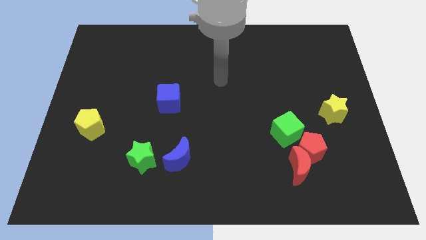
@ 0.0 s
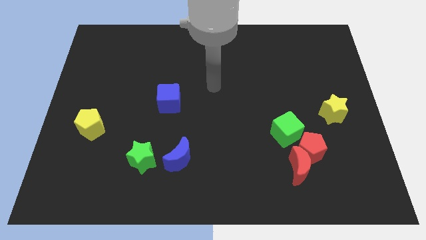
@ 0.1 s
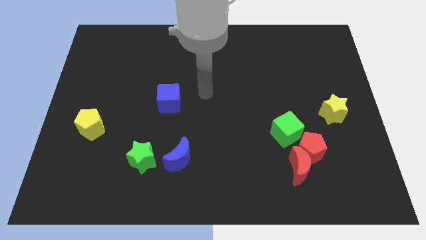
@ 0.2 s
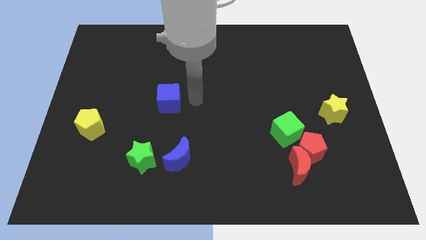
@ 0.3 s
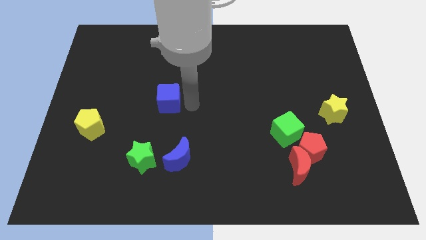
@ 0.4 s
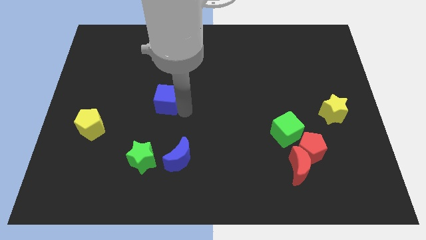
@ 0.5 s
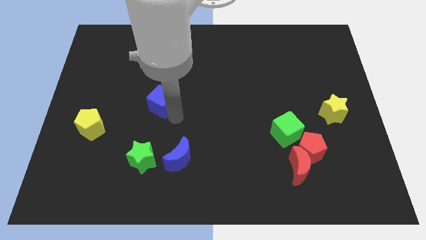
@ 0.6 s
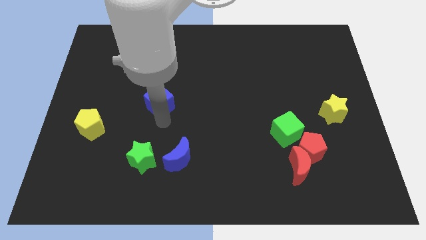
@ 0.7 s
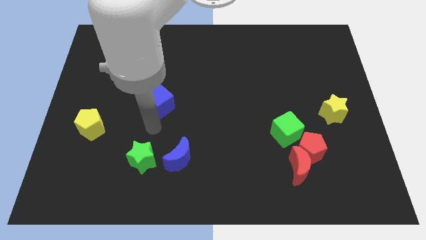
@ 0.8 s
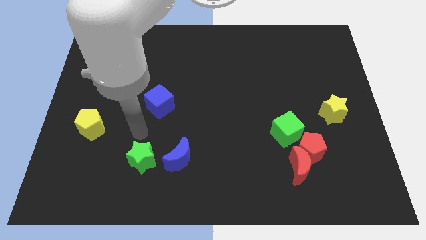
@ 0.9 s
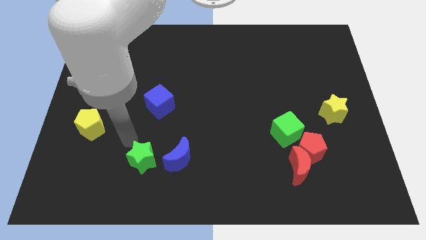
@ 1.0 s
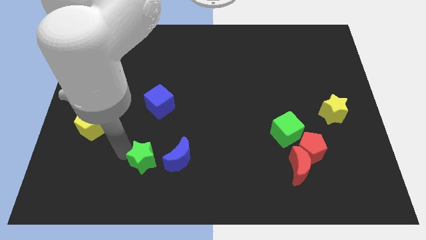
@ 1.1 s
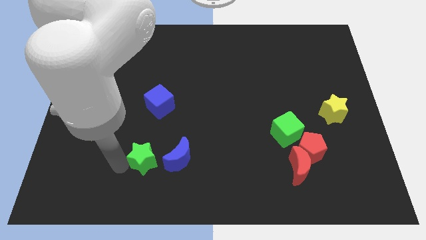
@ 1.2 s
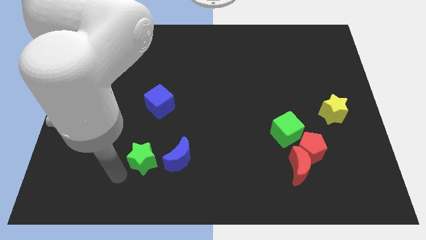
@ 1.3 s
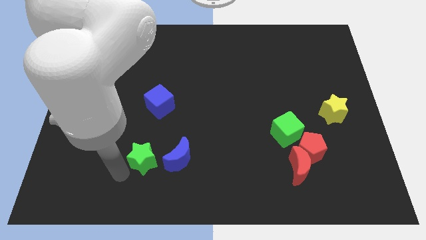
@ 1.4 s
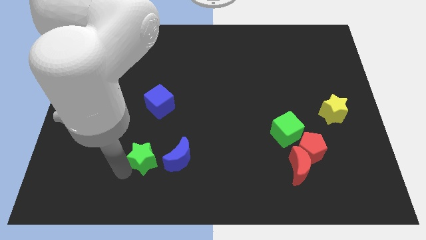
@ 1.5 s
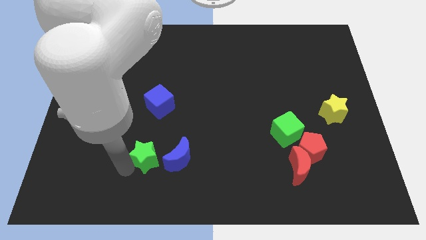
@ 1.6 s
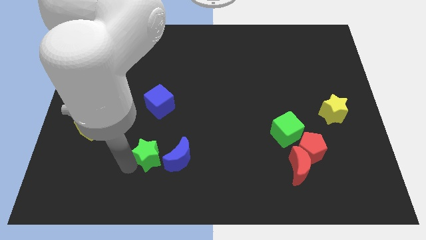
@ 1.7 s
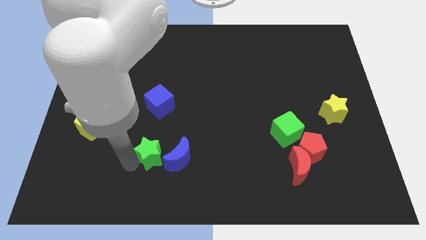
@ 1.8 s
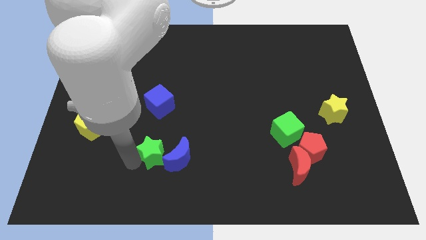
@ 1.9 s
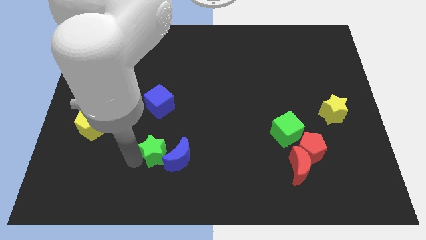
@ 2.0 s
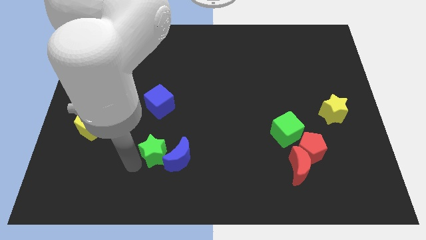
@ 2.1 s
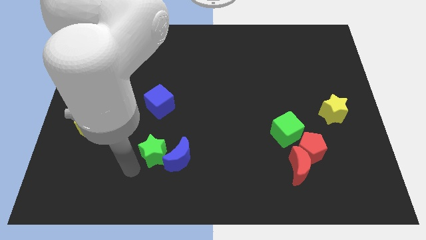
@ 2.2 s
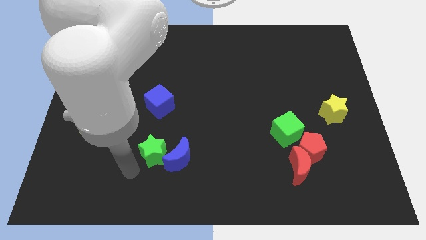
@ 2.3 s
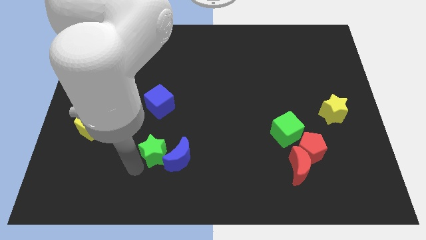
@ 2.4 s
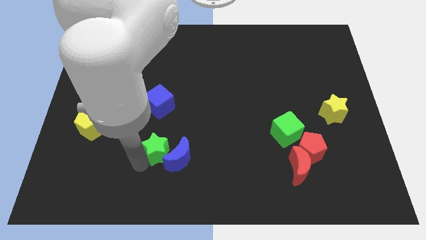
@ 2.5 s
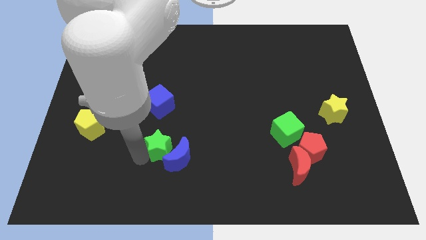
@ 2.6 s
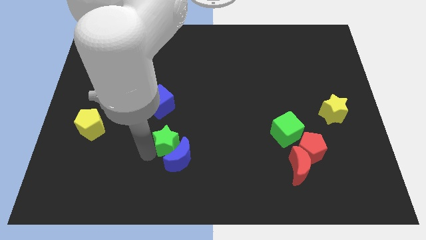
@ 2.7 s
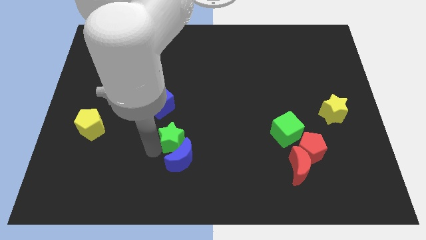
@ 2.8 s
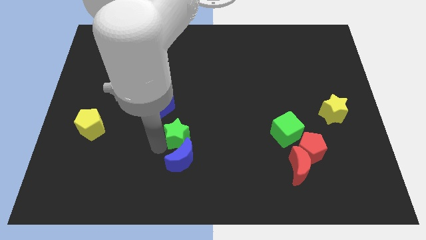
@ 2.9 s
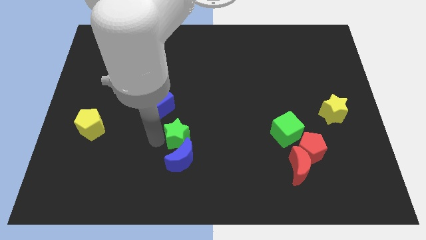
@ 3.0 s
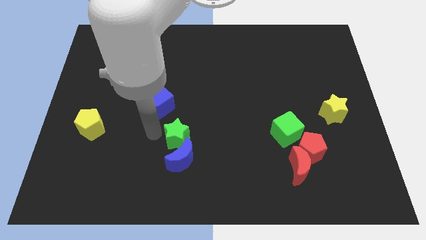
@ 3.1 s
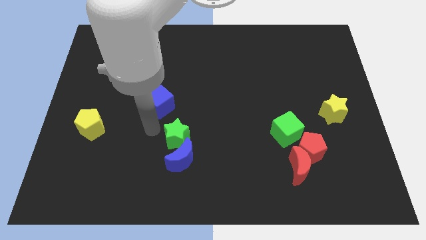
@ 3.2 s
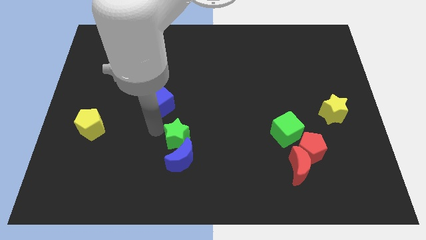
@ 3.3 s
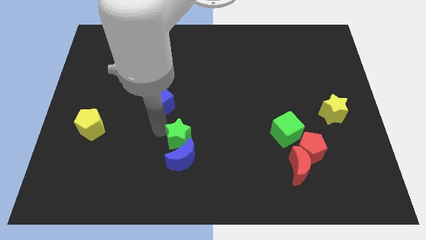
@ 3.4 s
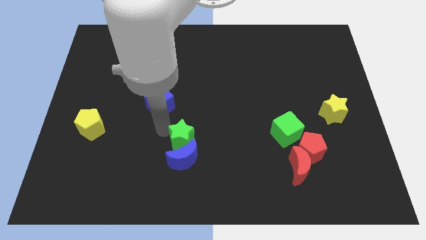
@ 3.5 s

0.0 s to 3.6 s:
slightly slide the green star right

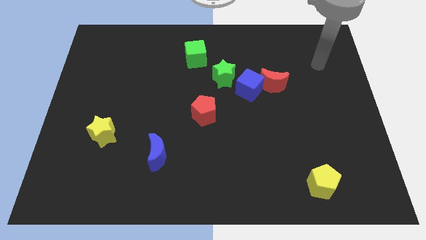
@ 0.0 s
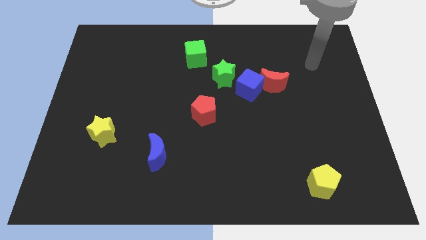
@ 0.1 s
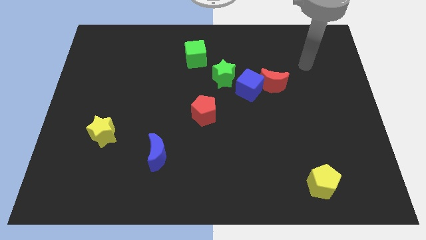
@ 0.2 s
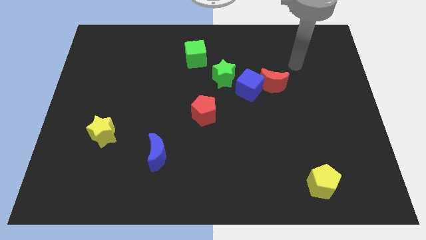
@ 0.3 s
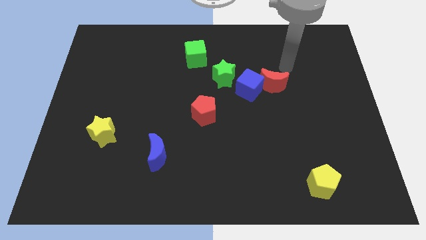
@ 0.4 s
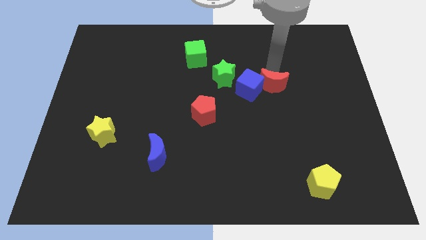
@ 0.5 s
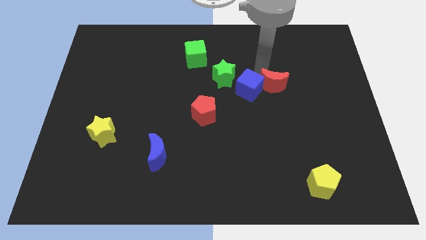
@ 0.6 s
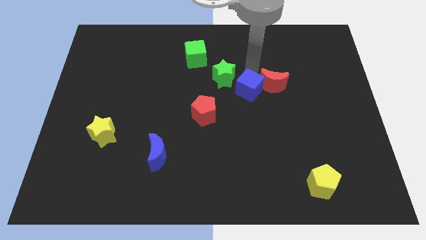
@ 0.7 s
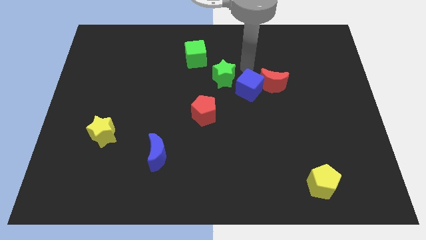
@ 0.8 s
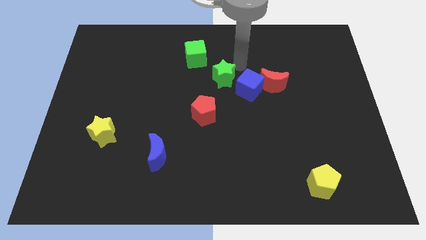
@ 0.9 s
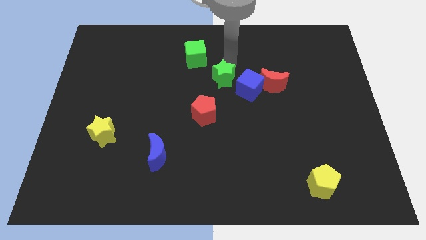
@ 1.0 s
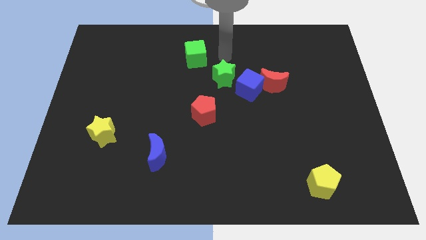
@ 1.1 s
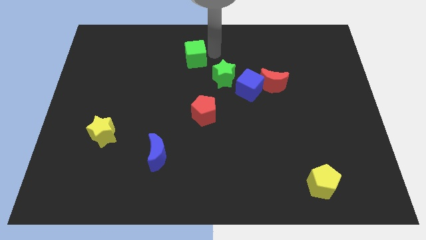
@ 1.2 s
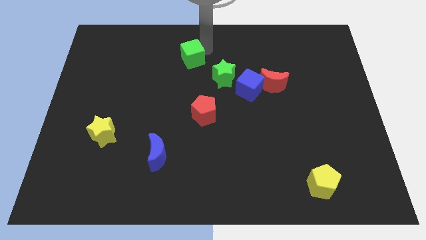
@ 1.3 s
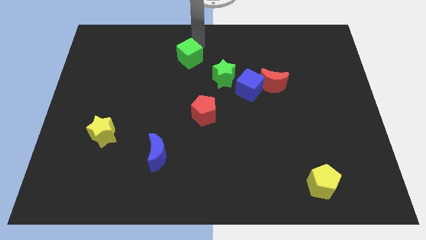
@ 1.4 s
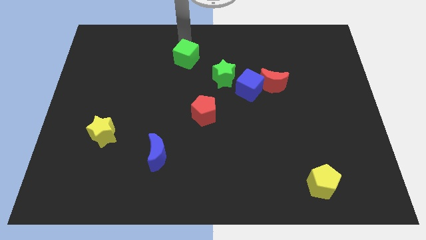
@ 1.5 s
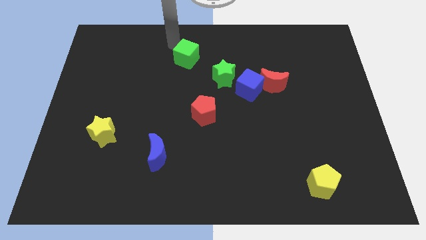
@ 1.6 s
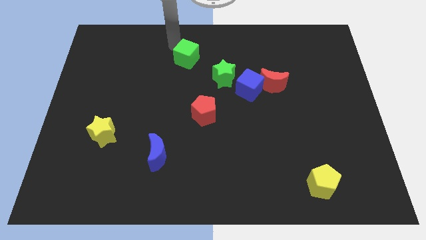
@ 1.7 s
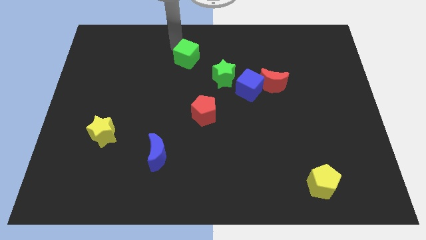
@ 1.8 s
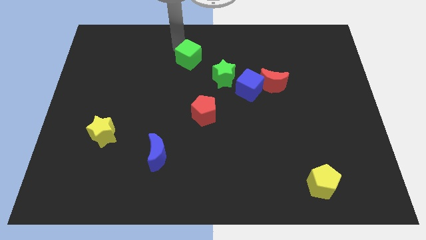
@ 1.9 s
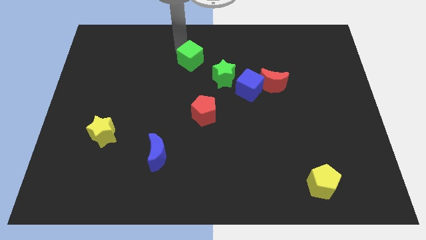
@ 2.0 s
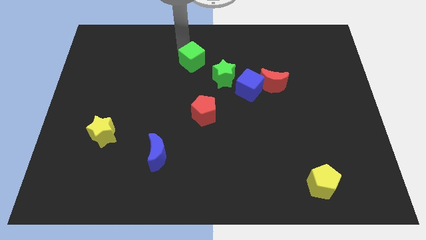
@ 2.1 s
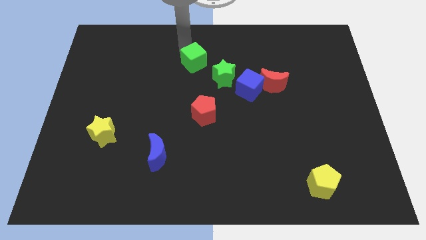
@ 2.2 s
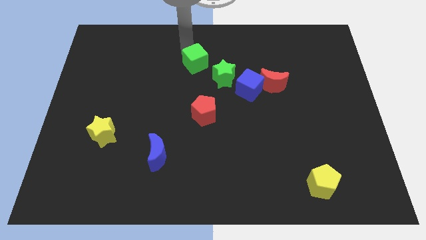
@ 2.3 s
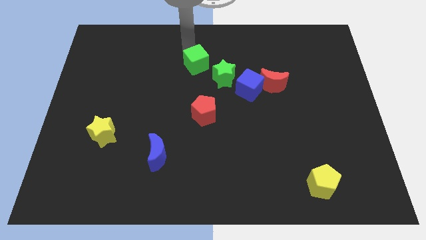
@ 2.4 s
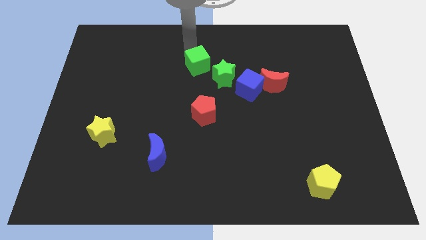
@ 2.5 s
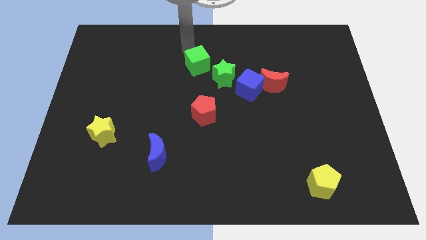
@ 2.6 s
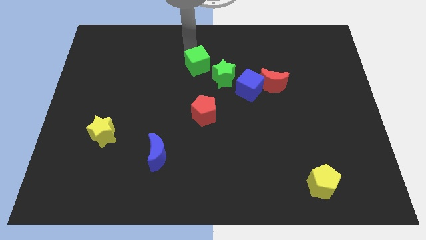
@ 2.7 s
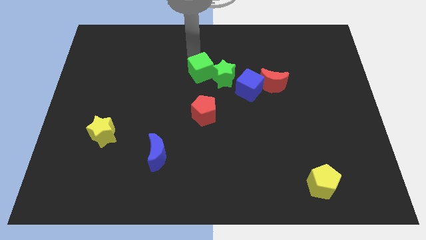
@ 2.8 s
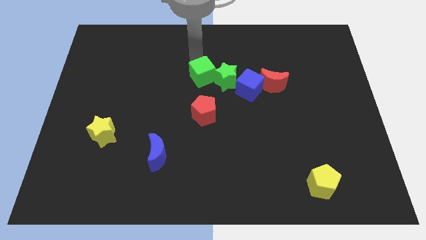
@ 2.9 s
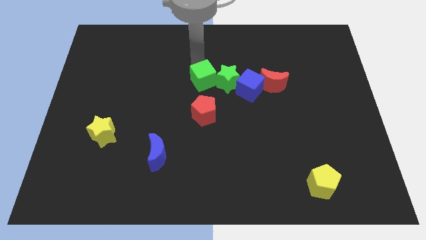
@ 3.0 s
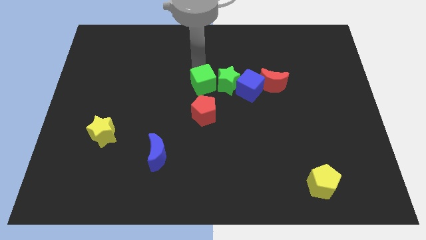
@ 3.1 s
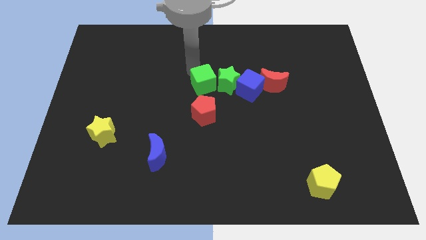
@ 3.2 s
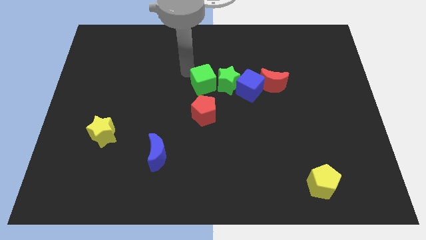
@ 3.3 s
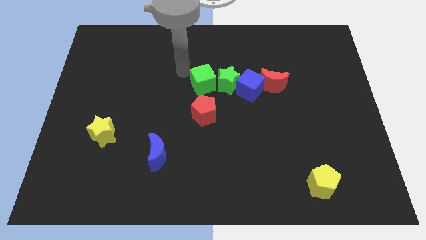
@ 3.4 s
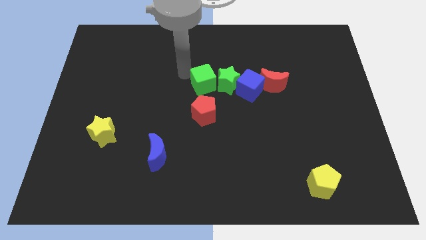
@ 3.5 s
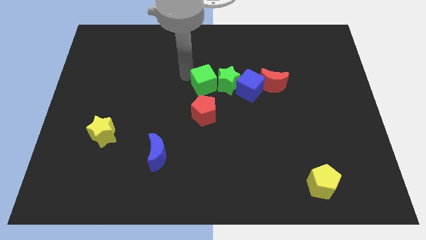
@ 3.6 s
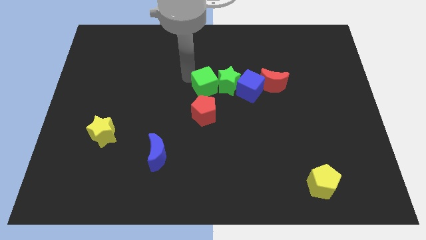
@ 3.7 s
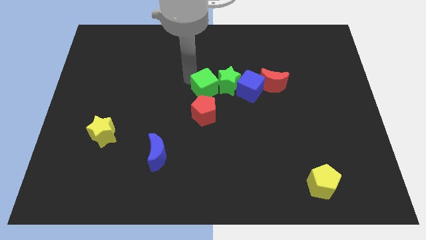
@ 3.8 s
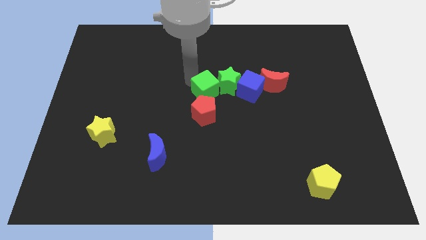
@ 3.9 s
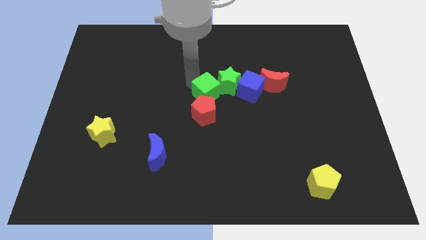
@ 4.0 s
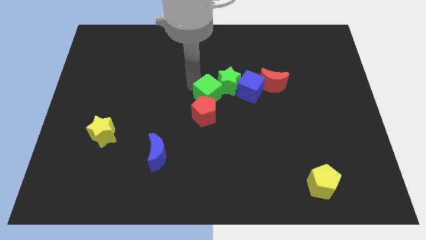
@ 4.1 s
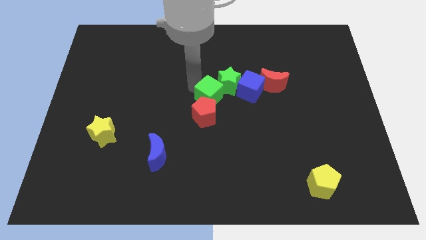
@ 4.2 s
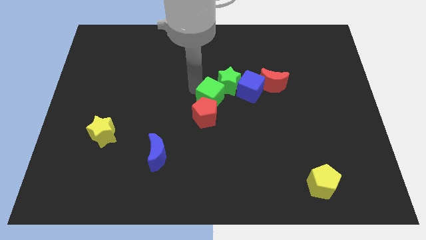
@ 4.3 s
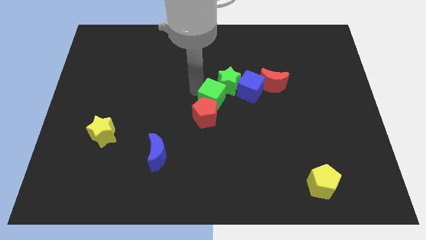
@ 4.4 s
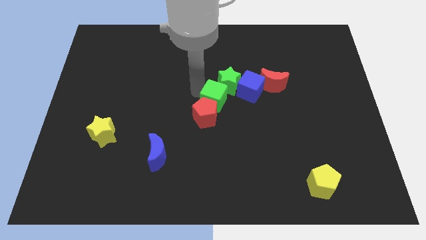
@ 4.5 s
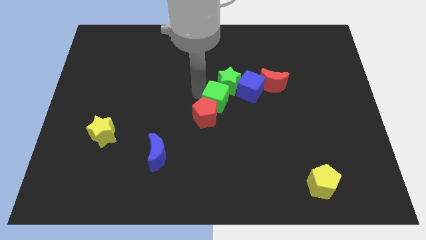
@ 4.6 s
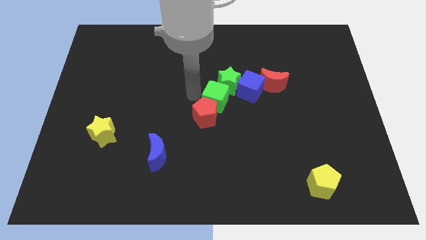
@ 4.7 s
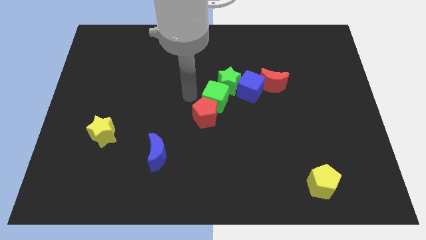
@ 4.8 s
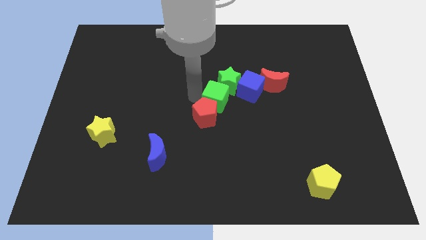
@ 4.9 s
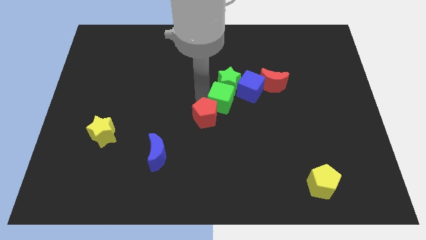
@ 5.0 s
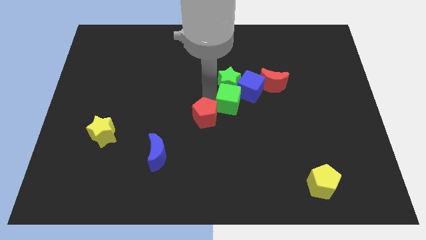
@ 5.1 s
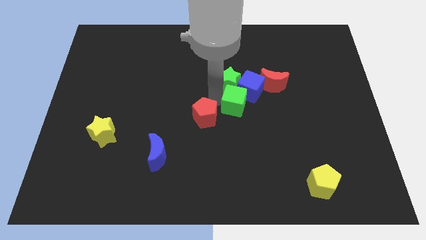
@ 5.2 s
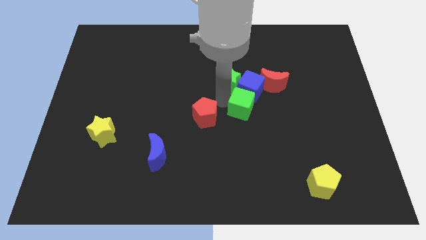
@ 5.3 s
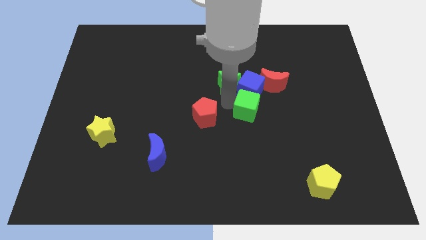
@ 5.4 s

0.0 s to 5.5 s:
slide the green cube downwards and right diagonally
